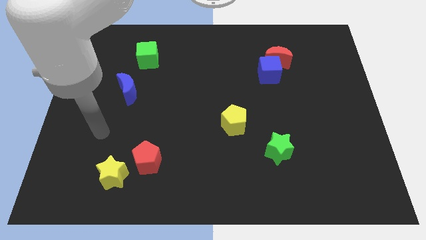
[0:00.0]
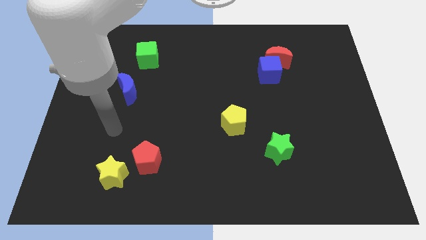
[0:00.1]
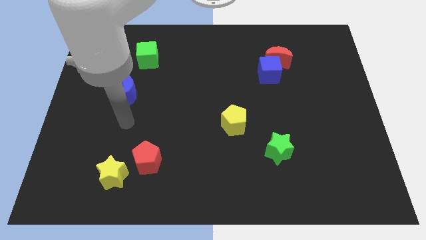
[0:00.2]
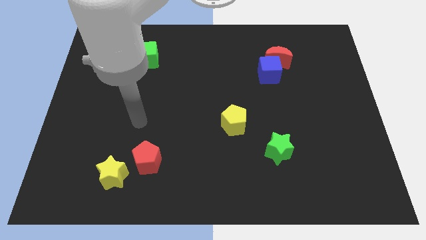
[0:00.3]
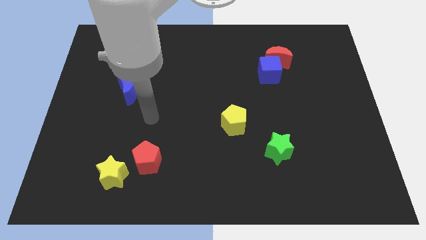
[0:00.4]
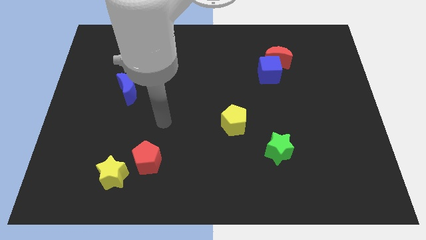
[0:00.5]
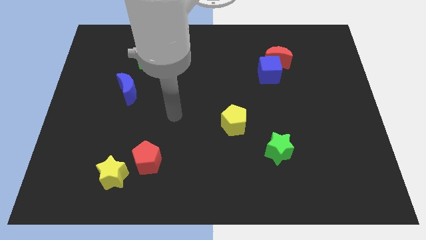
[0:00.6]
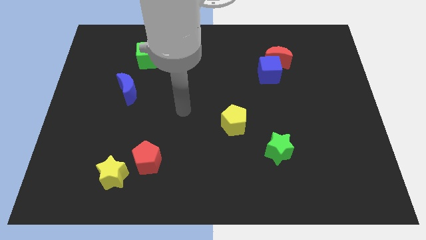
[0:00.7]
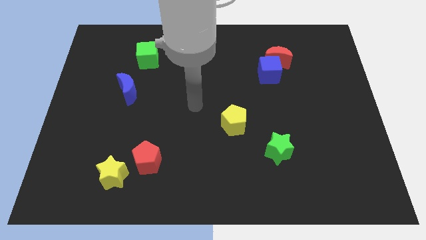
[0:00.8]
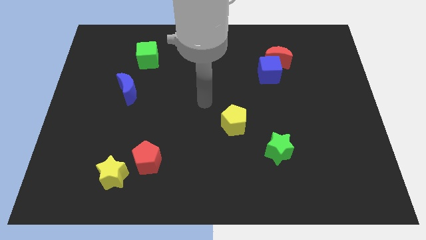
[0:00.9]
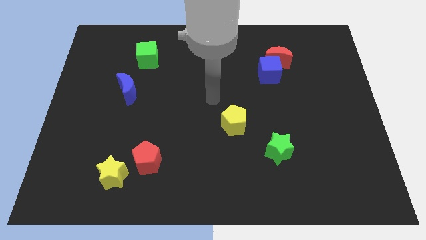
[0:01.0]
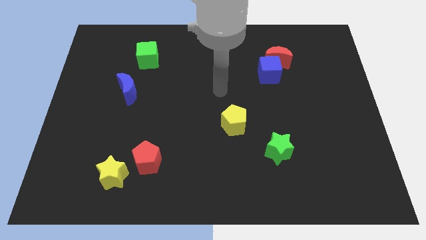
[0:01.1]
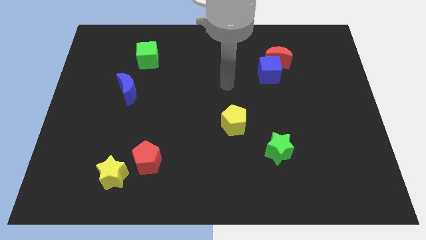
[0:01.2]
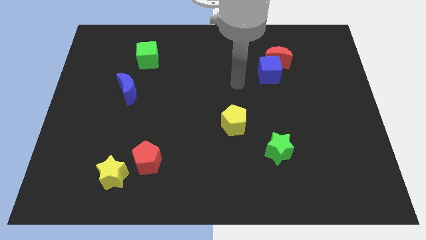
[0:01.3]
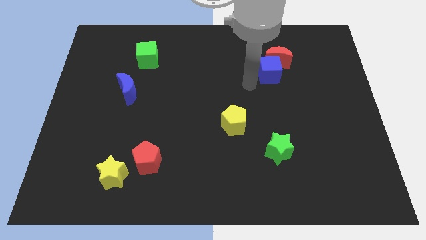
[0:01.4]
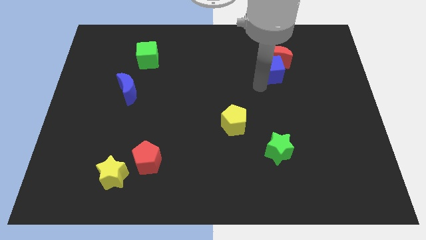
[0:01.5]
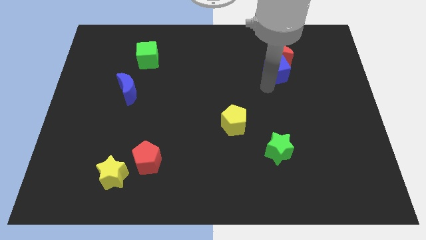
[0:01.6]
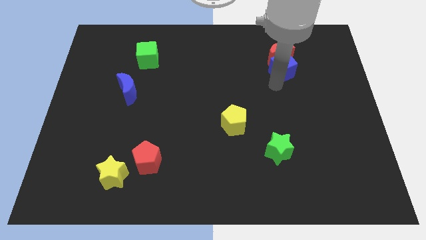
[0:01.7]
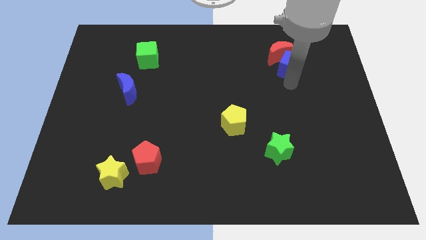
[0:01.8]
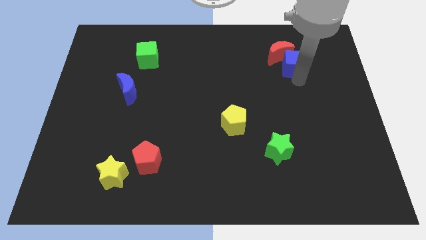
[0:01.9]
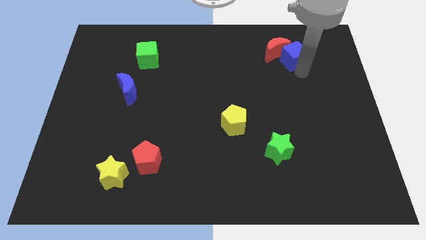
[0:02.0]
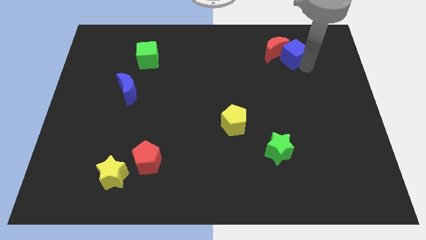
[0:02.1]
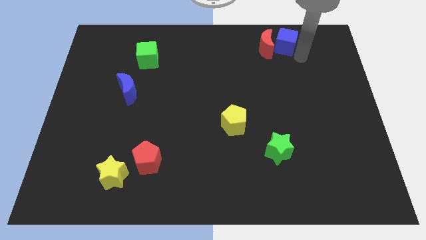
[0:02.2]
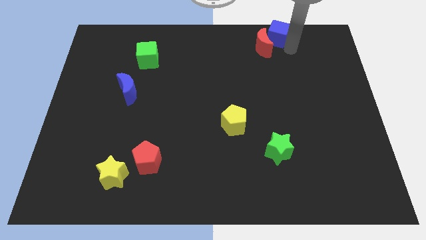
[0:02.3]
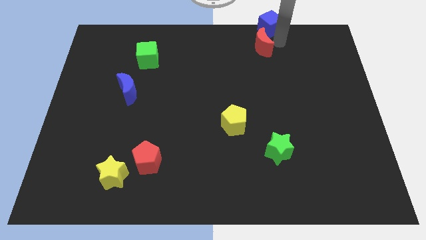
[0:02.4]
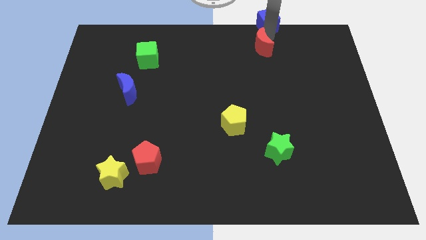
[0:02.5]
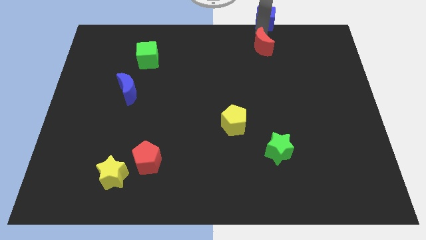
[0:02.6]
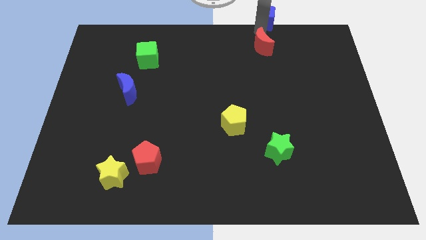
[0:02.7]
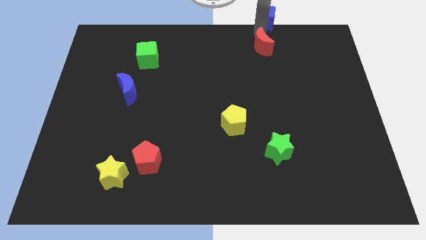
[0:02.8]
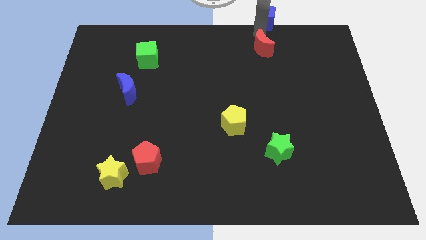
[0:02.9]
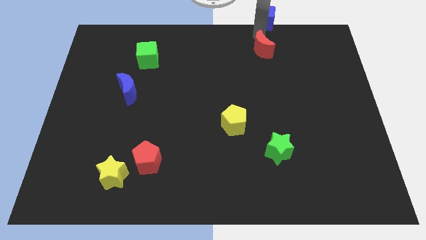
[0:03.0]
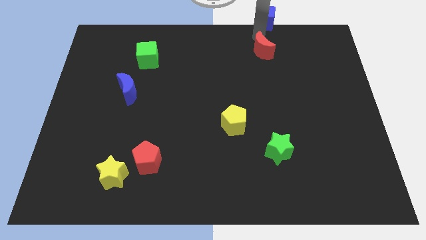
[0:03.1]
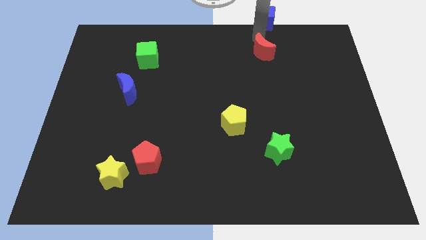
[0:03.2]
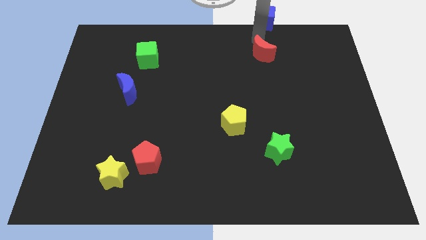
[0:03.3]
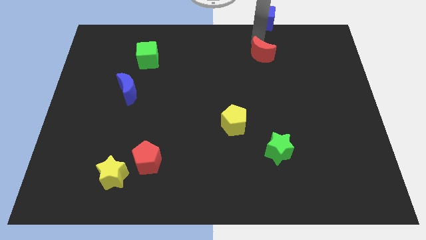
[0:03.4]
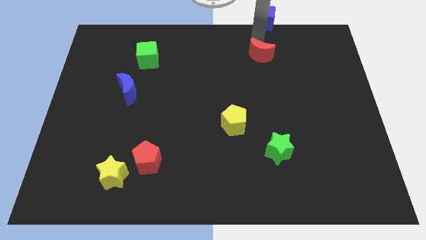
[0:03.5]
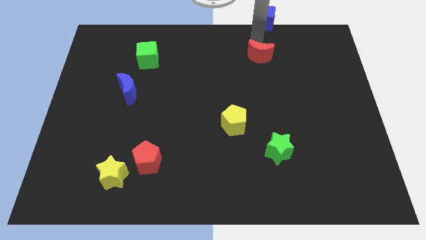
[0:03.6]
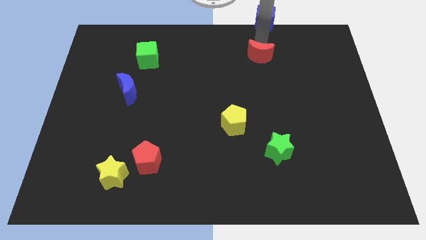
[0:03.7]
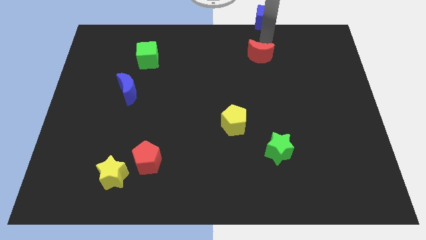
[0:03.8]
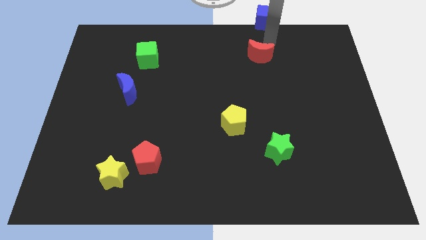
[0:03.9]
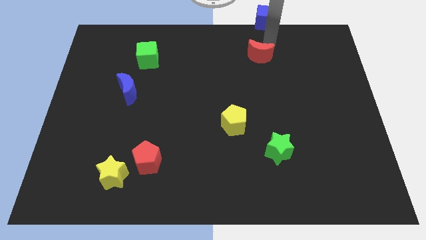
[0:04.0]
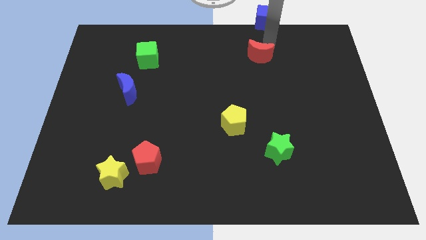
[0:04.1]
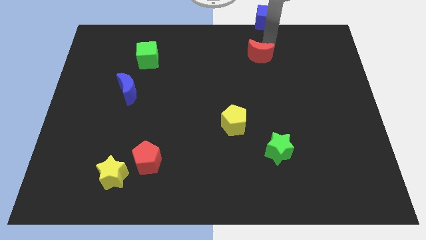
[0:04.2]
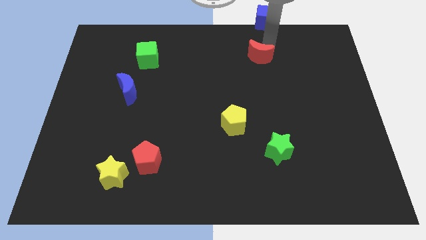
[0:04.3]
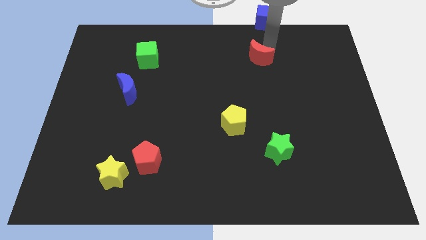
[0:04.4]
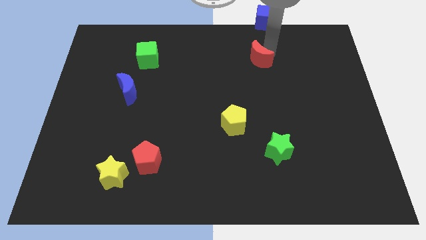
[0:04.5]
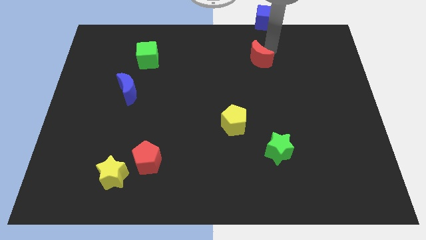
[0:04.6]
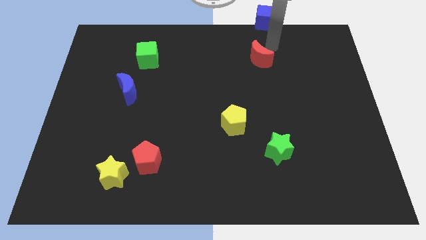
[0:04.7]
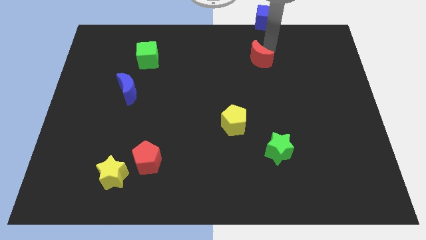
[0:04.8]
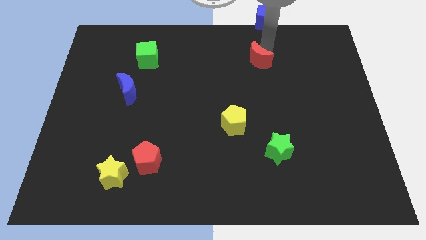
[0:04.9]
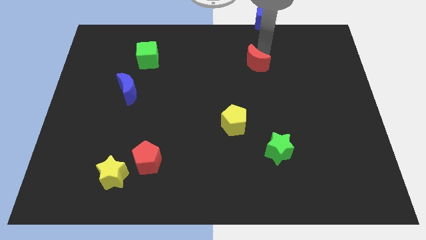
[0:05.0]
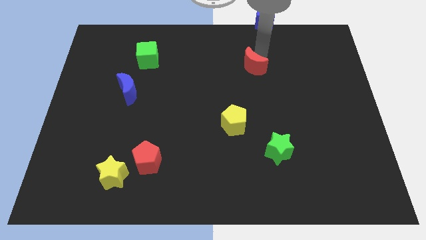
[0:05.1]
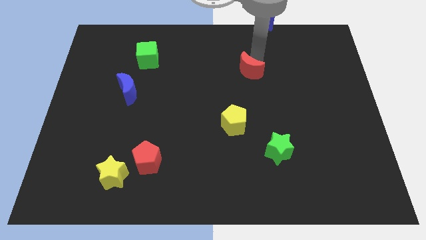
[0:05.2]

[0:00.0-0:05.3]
slide the red moon diagonally downwards and to the left slightly

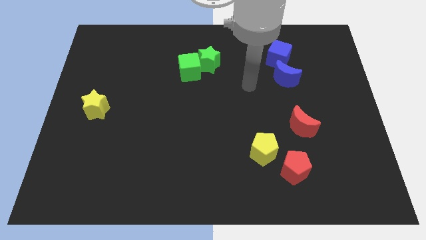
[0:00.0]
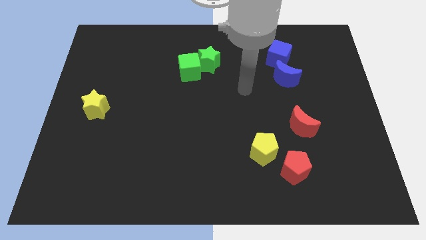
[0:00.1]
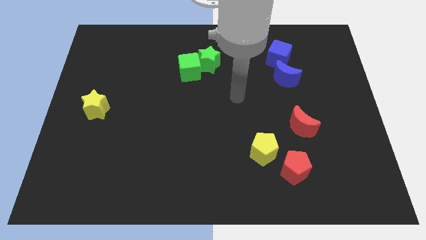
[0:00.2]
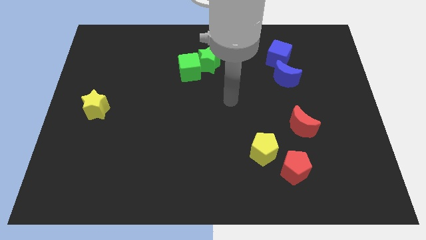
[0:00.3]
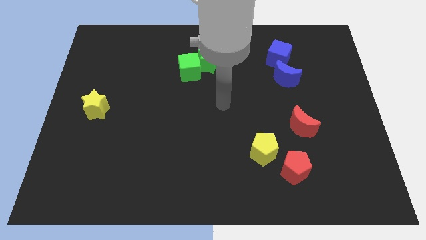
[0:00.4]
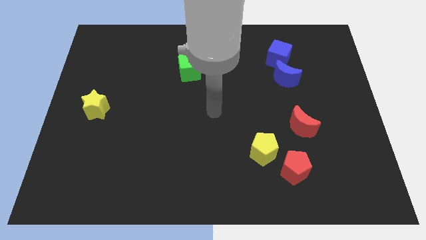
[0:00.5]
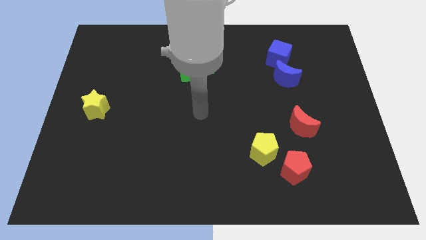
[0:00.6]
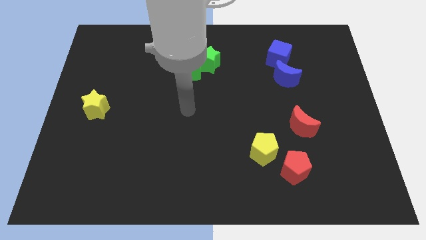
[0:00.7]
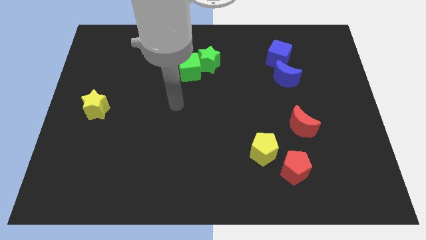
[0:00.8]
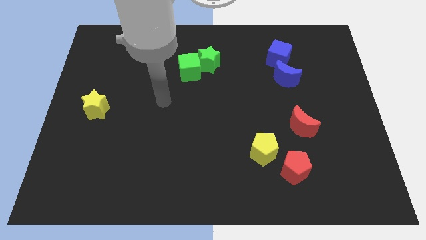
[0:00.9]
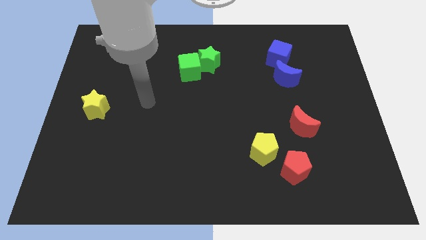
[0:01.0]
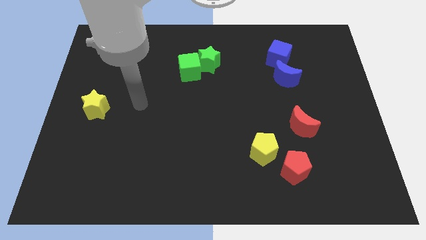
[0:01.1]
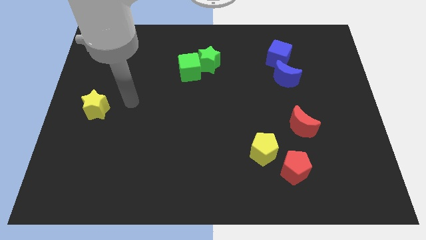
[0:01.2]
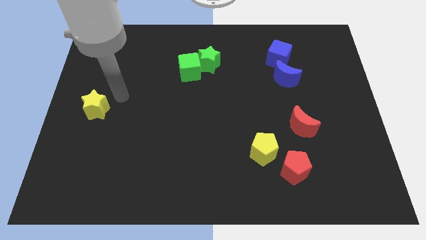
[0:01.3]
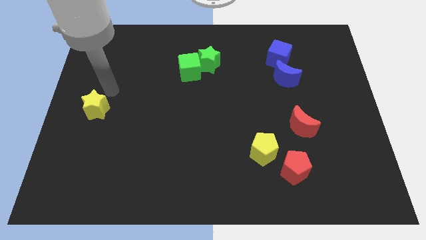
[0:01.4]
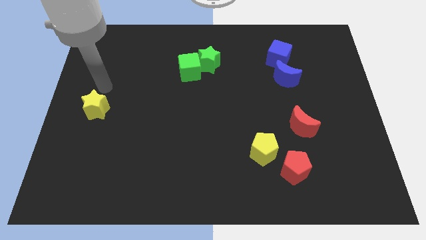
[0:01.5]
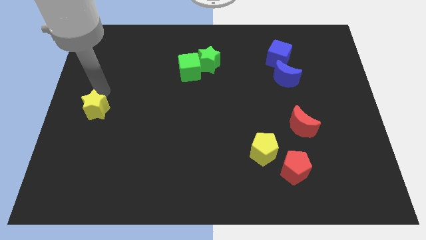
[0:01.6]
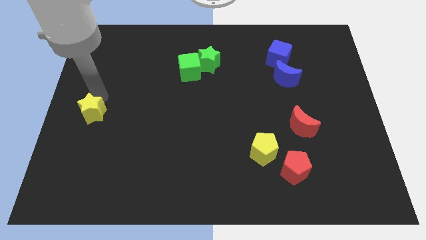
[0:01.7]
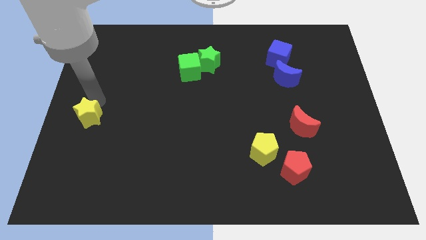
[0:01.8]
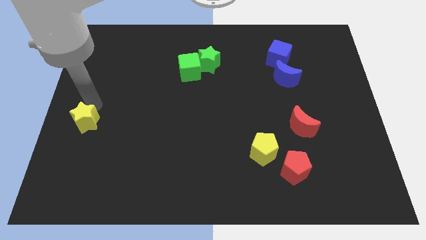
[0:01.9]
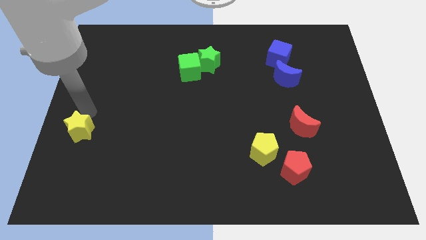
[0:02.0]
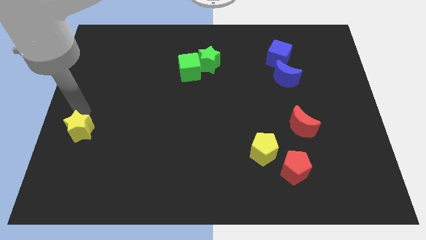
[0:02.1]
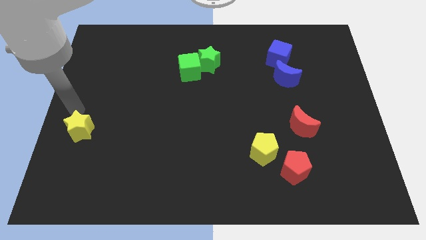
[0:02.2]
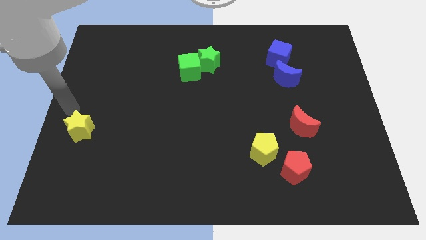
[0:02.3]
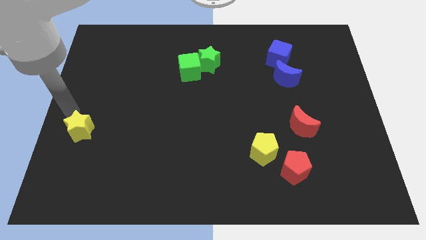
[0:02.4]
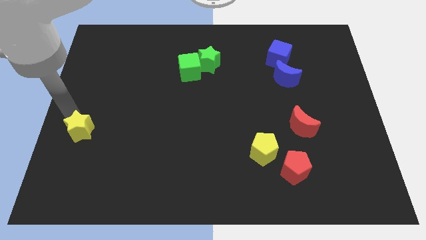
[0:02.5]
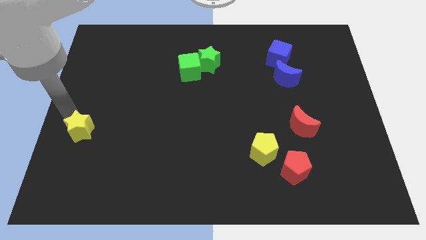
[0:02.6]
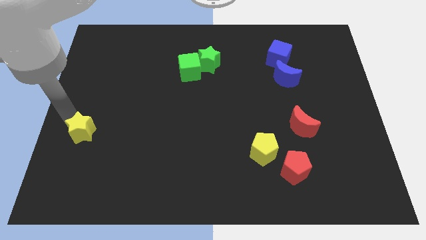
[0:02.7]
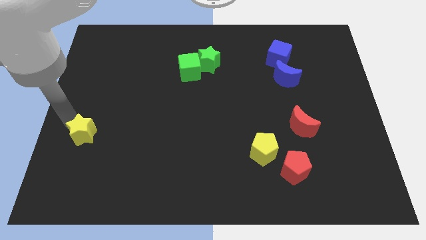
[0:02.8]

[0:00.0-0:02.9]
slide the yellow star somewhat downwards

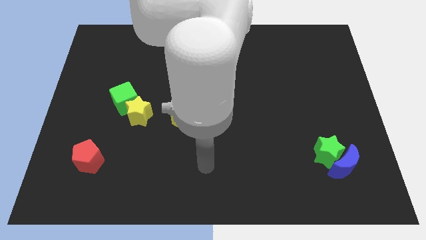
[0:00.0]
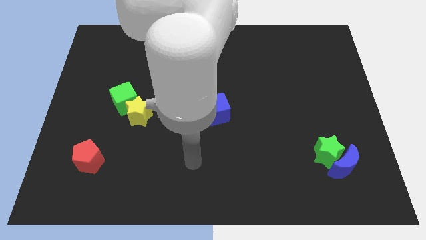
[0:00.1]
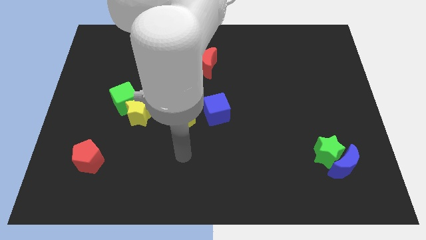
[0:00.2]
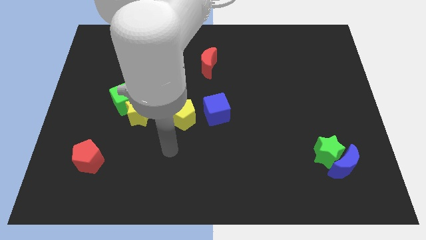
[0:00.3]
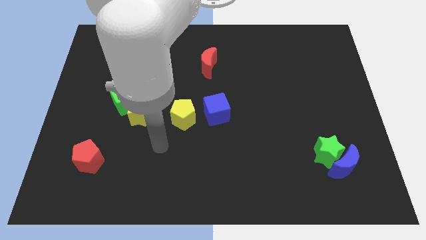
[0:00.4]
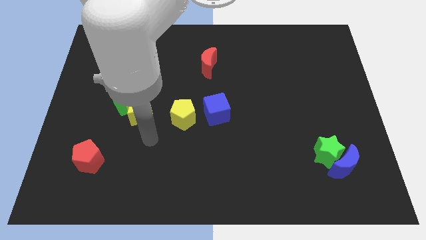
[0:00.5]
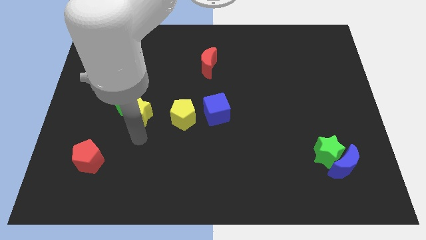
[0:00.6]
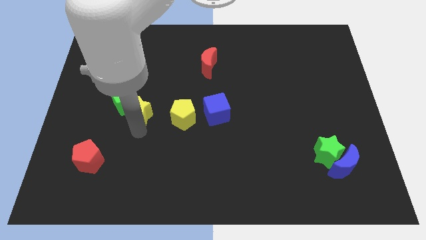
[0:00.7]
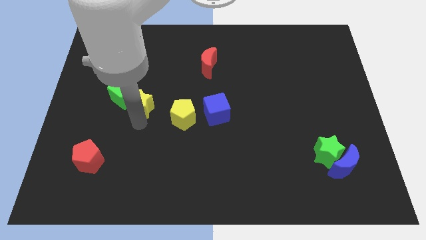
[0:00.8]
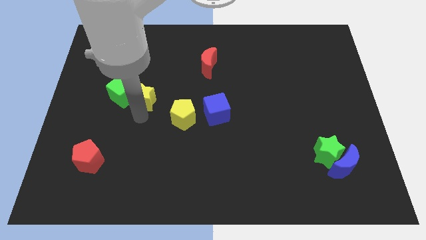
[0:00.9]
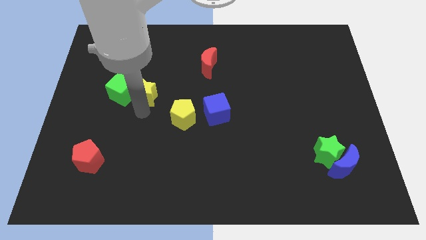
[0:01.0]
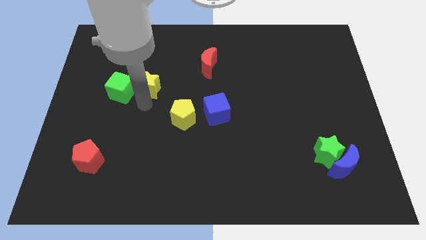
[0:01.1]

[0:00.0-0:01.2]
push the yellow star up somewhat
